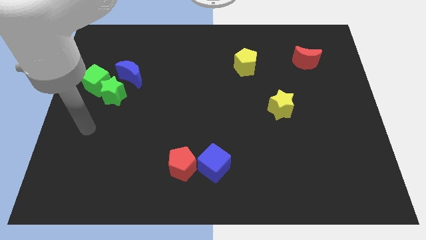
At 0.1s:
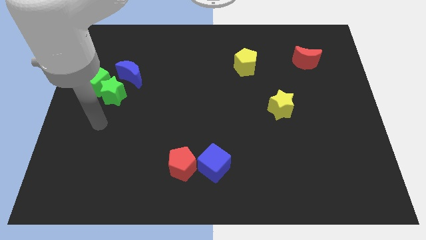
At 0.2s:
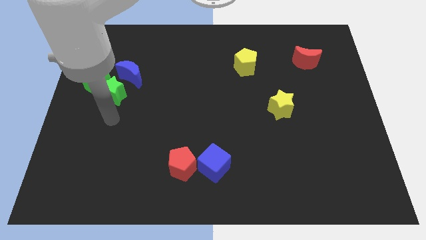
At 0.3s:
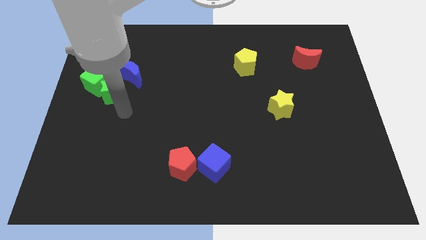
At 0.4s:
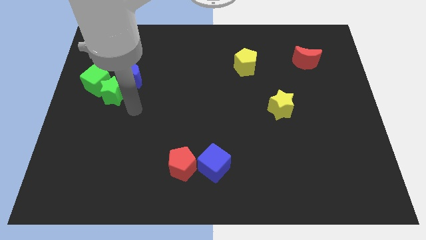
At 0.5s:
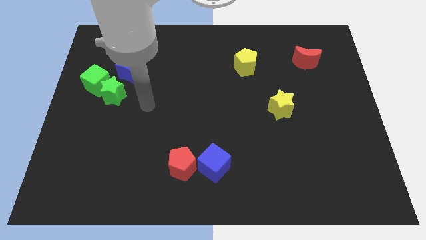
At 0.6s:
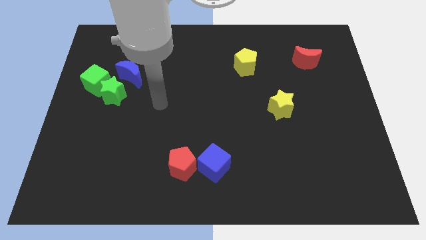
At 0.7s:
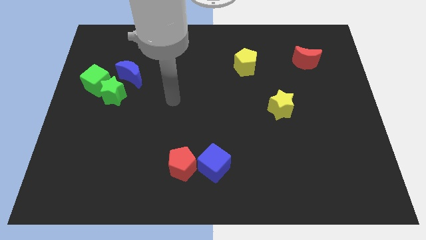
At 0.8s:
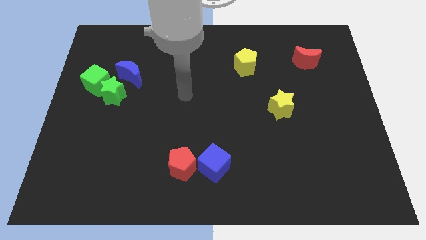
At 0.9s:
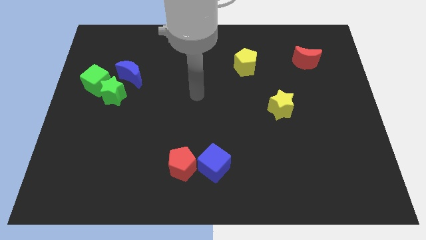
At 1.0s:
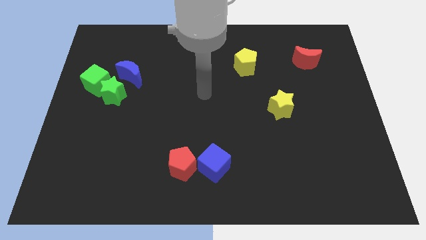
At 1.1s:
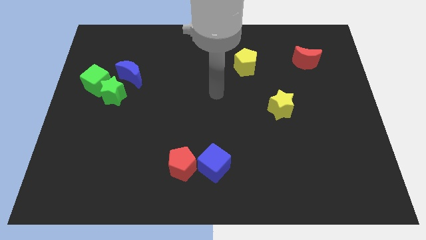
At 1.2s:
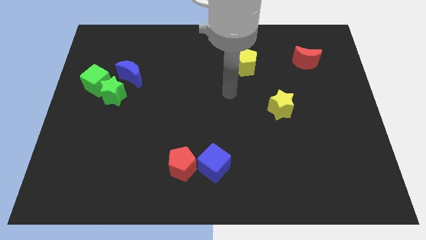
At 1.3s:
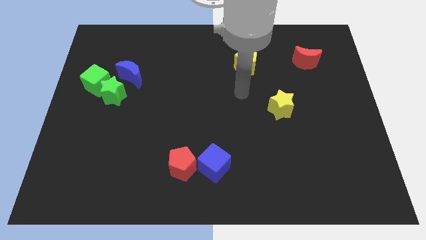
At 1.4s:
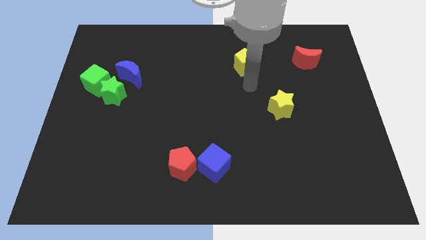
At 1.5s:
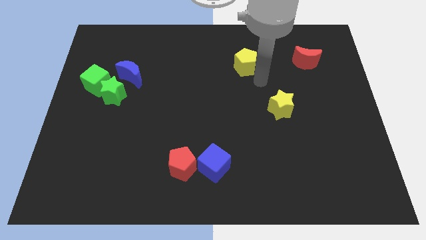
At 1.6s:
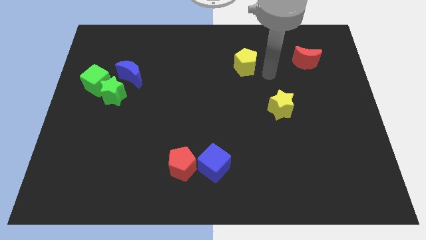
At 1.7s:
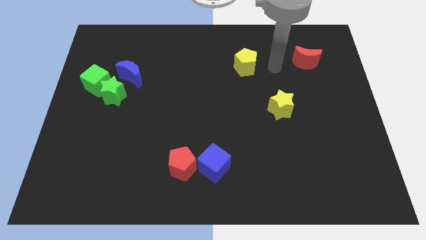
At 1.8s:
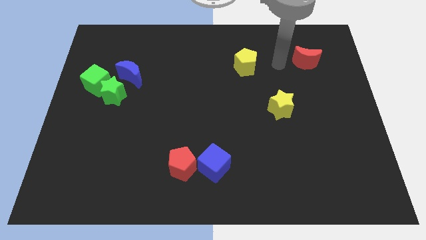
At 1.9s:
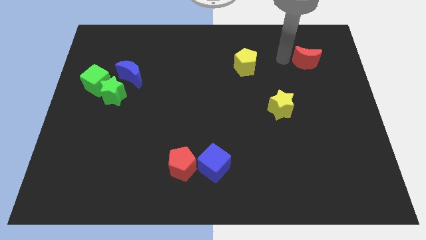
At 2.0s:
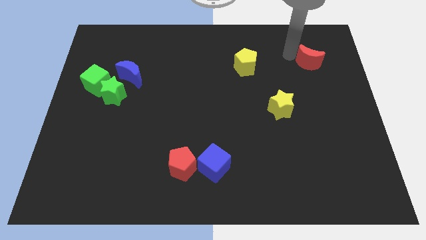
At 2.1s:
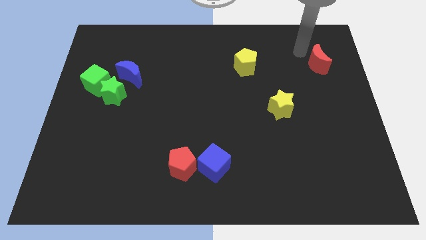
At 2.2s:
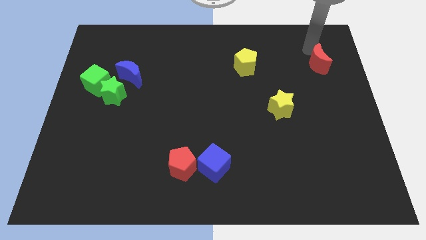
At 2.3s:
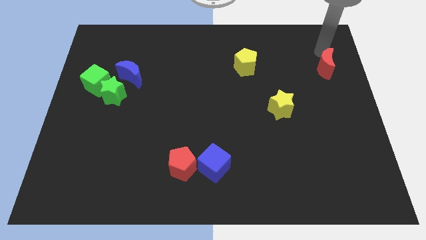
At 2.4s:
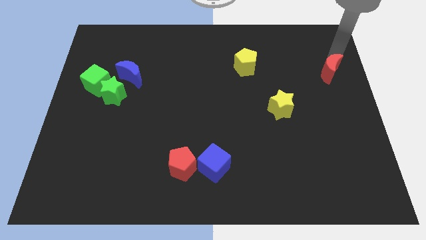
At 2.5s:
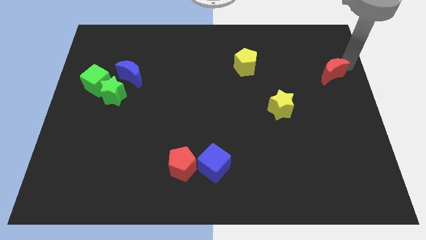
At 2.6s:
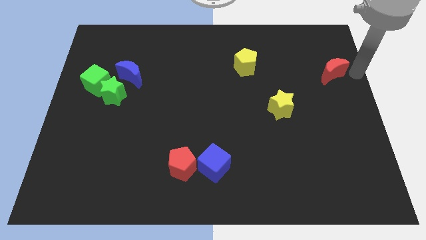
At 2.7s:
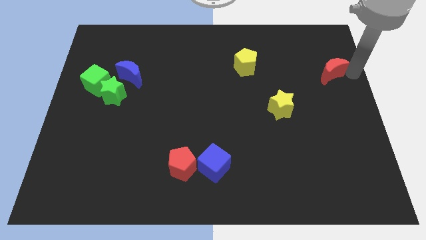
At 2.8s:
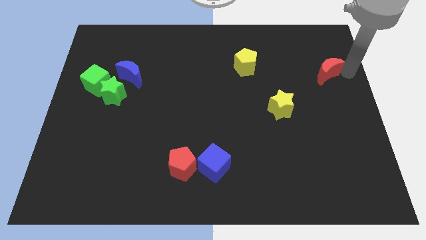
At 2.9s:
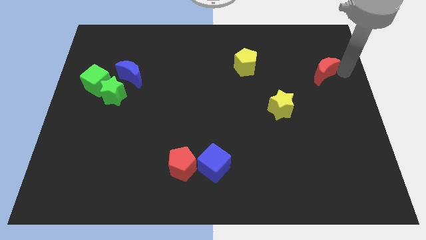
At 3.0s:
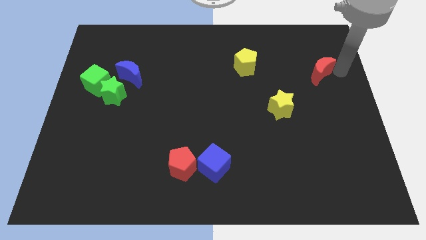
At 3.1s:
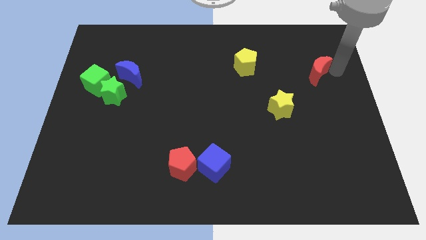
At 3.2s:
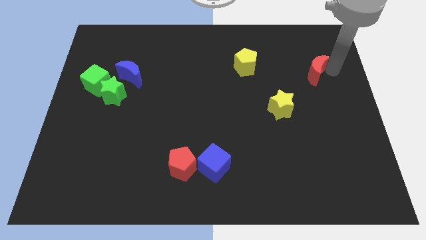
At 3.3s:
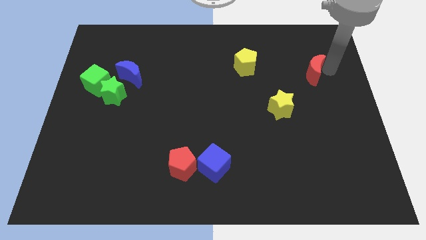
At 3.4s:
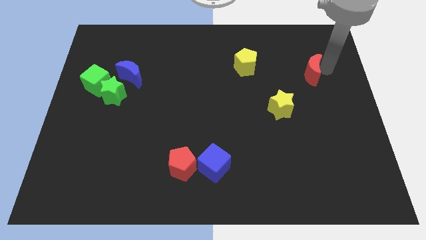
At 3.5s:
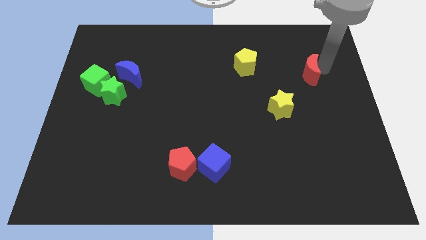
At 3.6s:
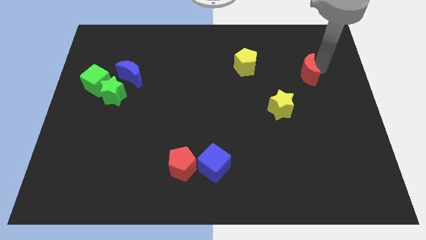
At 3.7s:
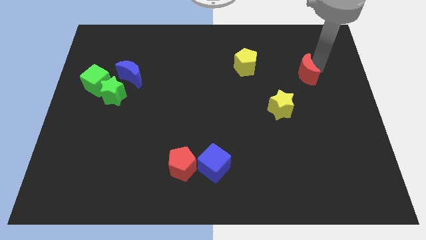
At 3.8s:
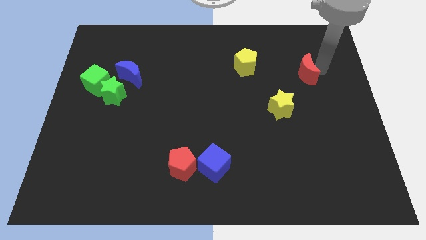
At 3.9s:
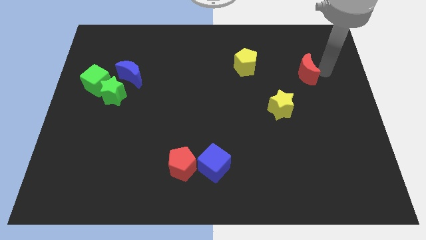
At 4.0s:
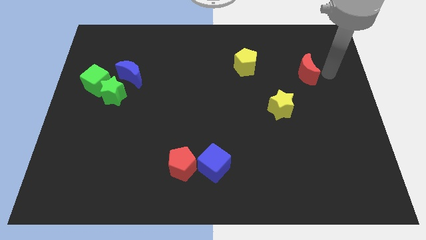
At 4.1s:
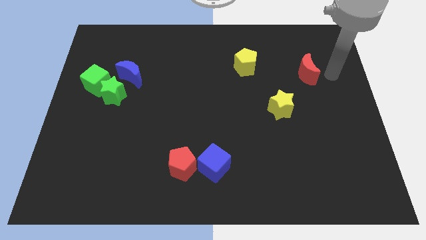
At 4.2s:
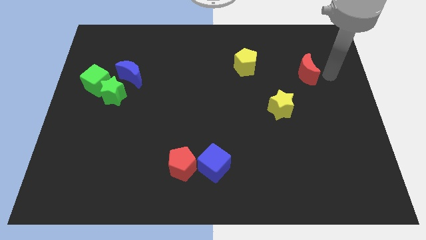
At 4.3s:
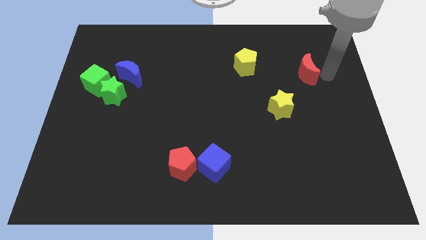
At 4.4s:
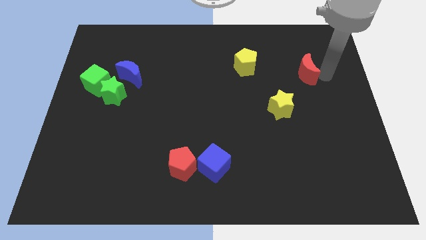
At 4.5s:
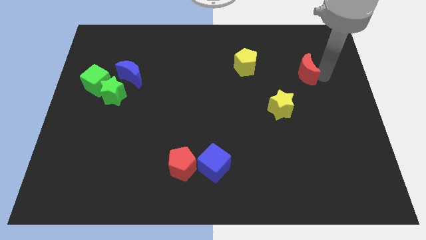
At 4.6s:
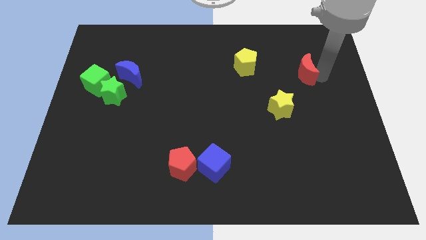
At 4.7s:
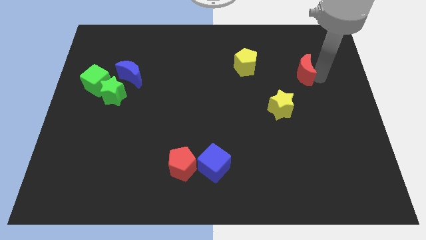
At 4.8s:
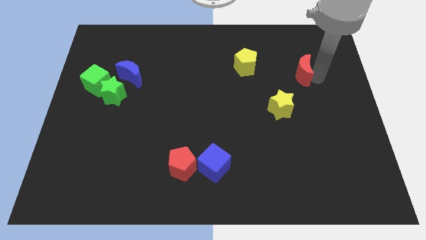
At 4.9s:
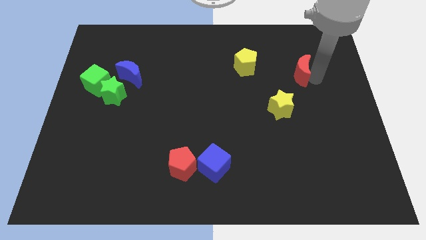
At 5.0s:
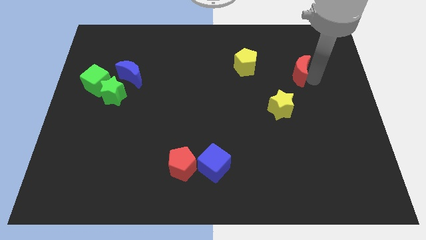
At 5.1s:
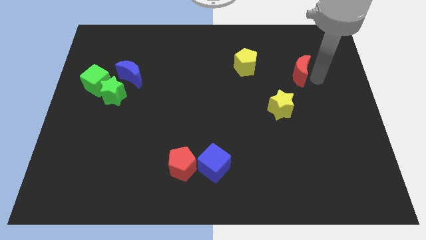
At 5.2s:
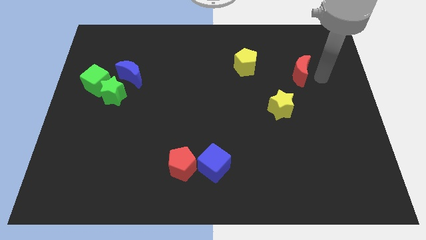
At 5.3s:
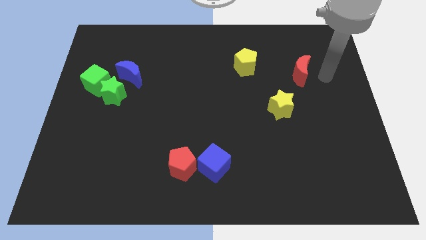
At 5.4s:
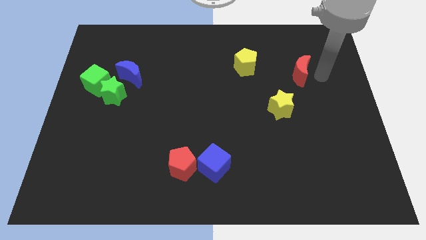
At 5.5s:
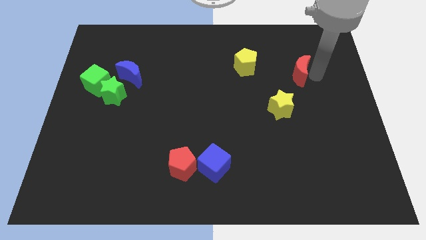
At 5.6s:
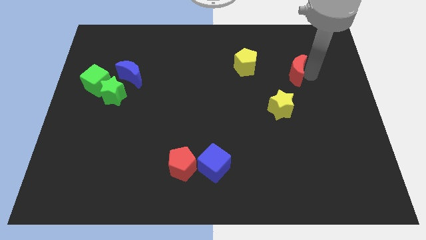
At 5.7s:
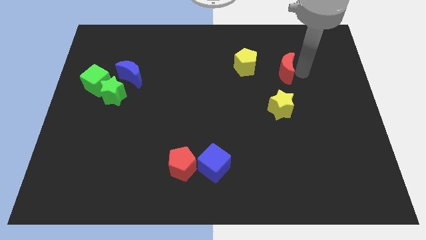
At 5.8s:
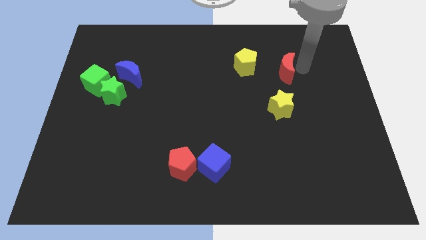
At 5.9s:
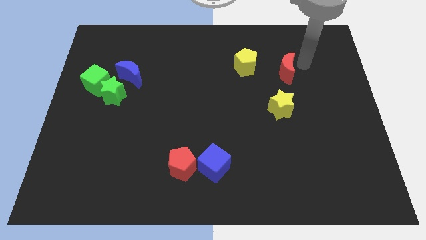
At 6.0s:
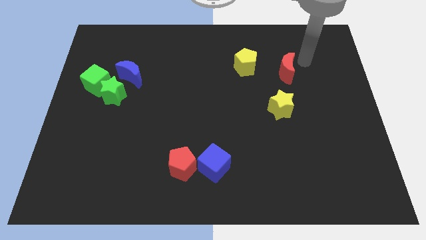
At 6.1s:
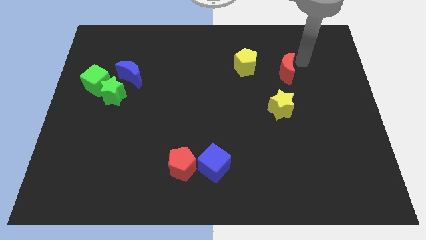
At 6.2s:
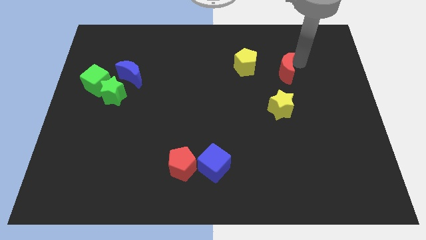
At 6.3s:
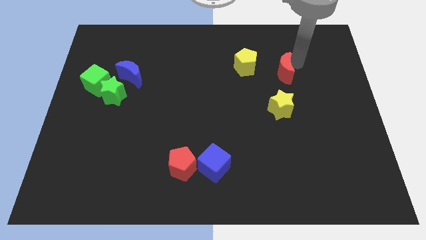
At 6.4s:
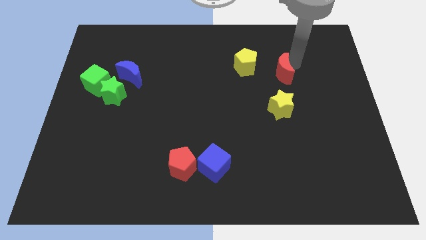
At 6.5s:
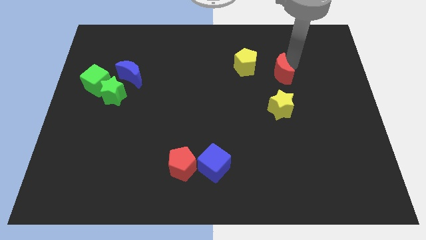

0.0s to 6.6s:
move the red moon to the bottom right of the yellow pentagon

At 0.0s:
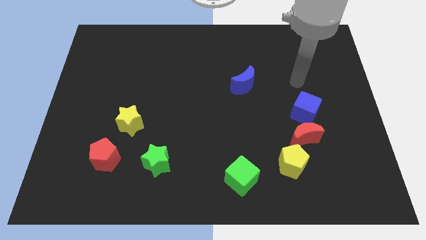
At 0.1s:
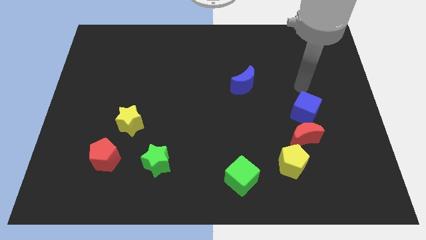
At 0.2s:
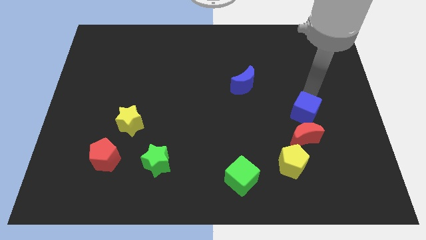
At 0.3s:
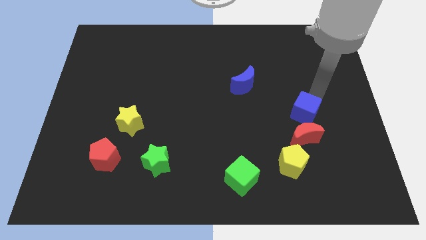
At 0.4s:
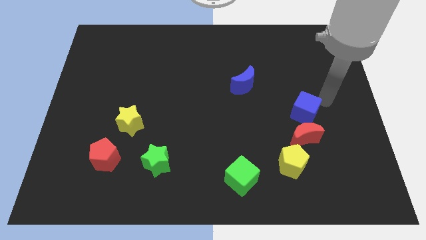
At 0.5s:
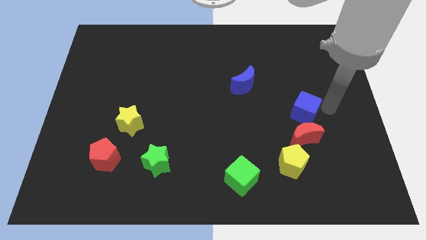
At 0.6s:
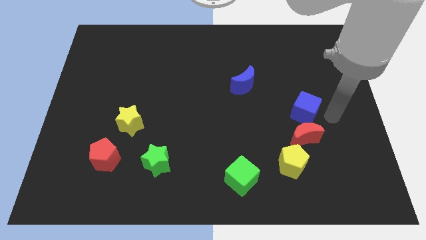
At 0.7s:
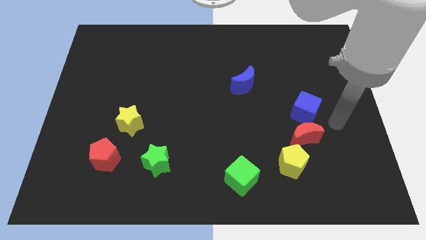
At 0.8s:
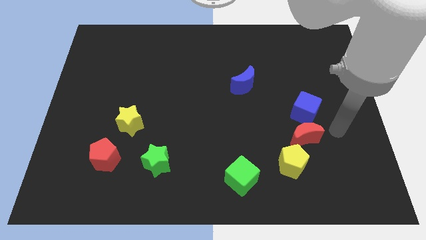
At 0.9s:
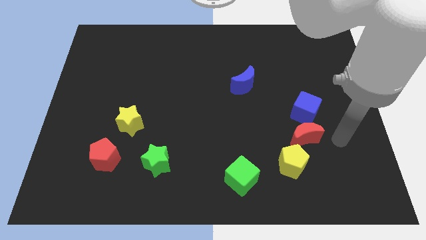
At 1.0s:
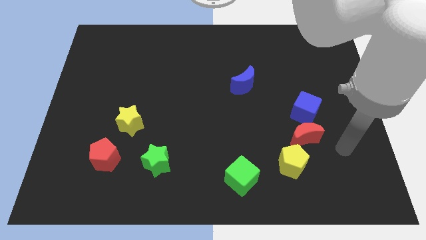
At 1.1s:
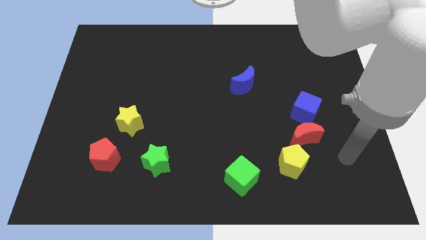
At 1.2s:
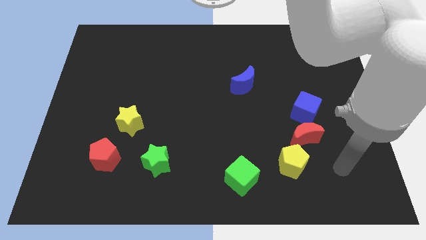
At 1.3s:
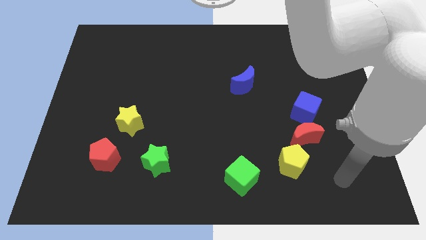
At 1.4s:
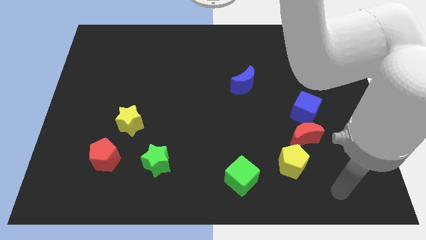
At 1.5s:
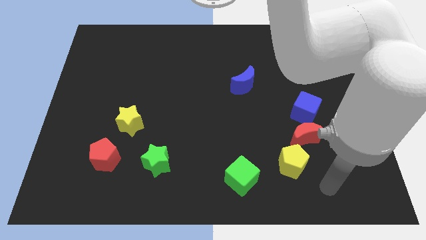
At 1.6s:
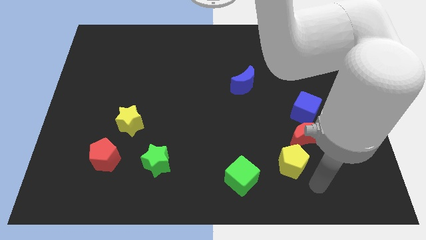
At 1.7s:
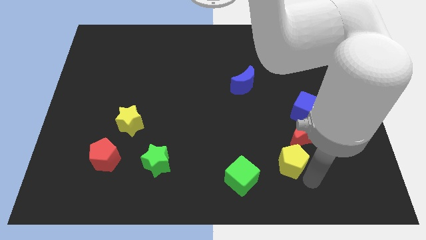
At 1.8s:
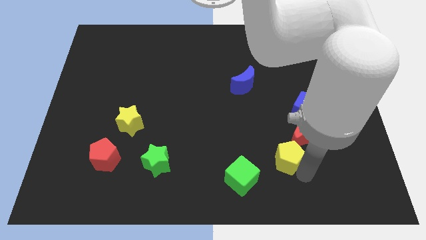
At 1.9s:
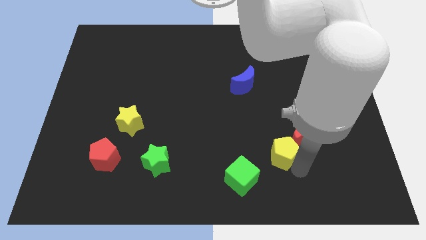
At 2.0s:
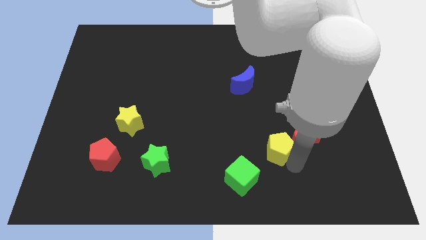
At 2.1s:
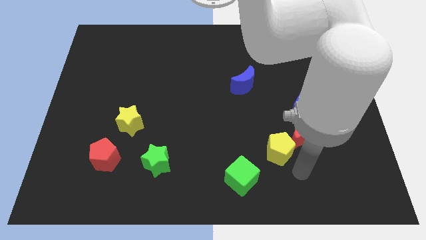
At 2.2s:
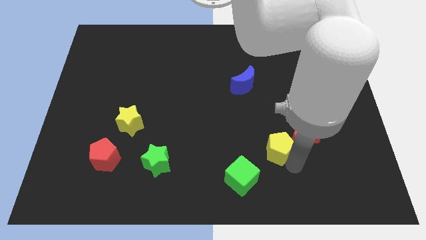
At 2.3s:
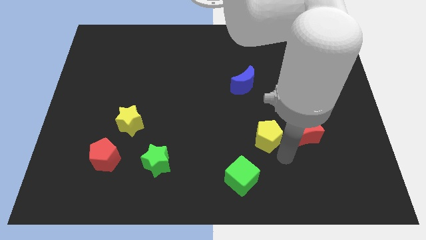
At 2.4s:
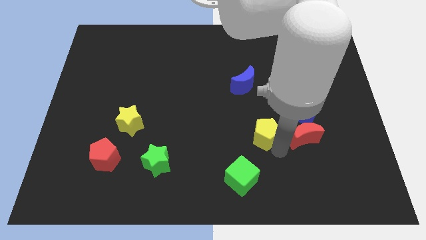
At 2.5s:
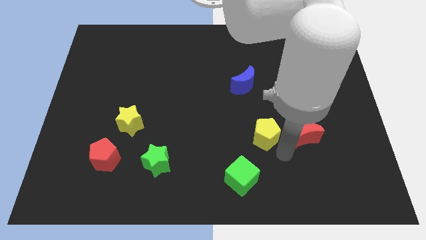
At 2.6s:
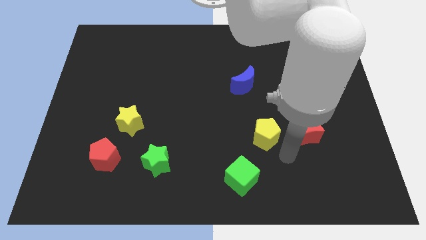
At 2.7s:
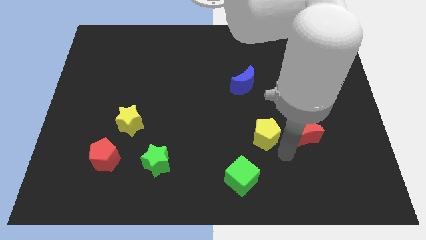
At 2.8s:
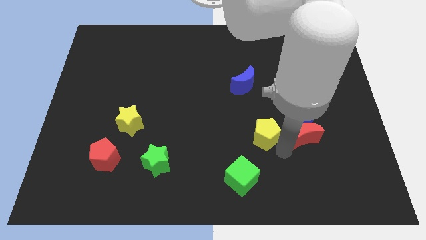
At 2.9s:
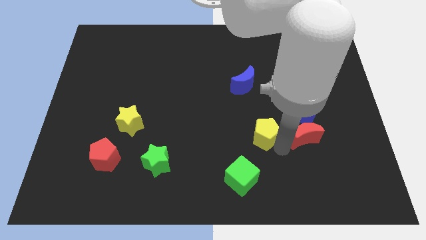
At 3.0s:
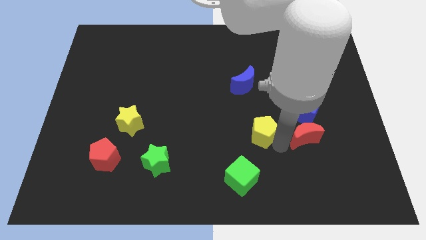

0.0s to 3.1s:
move the yellow pentagon to the bottom side of the blue moon
